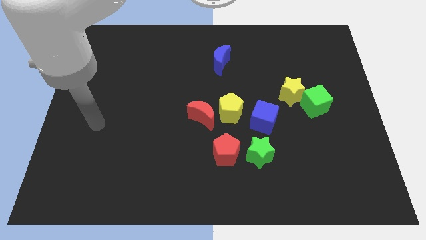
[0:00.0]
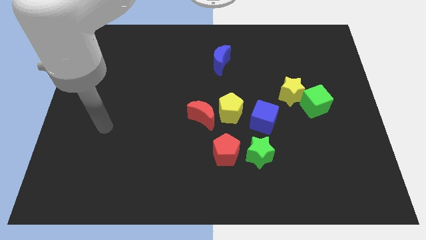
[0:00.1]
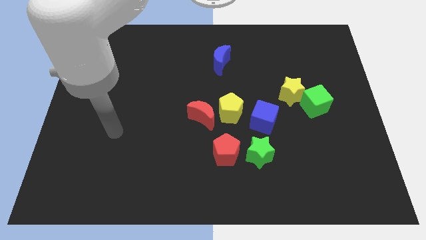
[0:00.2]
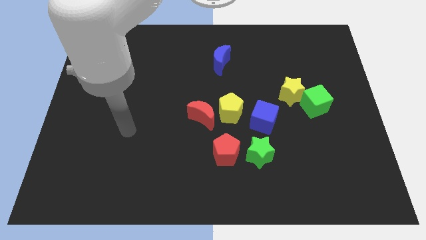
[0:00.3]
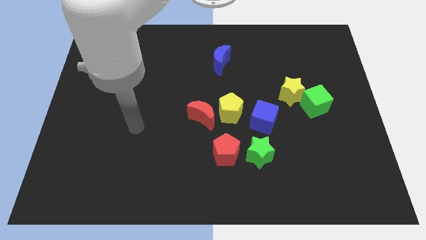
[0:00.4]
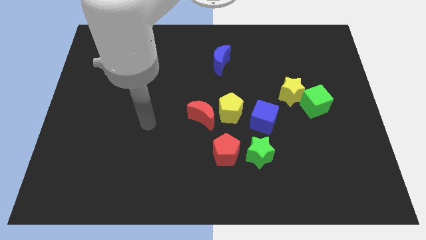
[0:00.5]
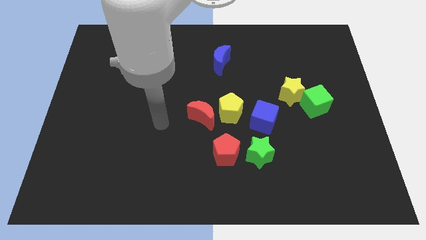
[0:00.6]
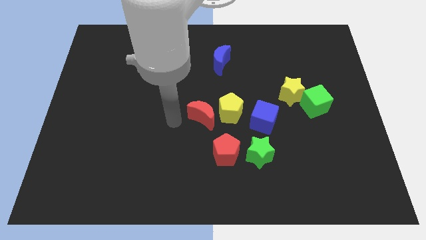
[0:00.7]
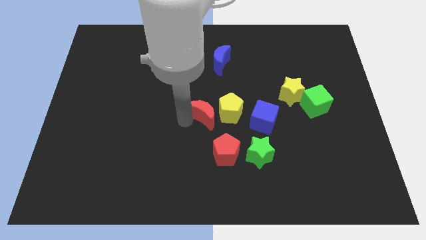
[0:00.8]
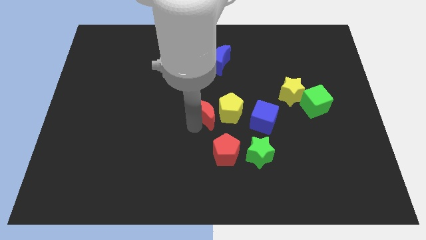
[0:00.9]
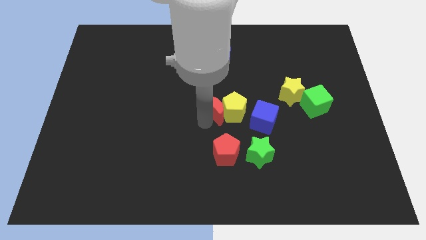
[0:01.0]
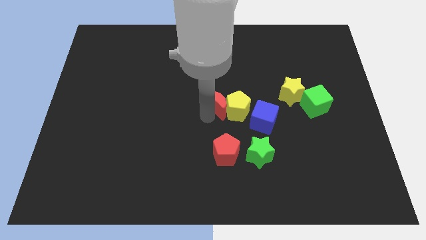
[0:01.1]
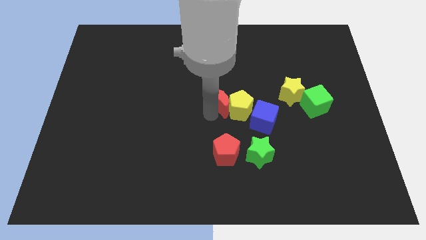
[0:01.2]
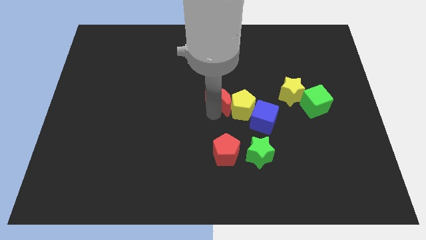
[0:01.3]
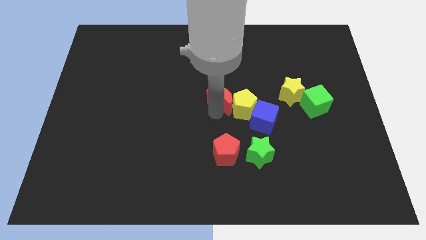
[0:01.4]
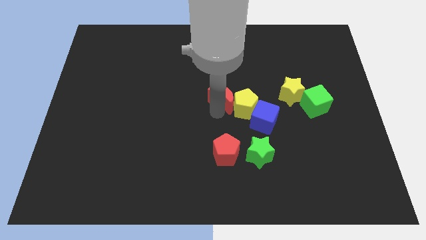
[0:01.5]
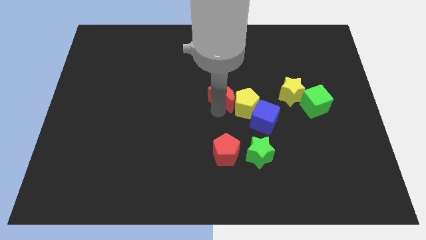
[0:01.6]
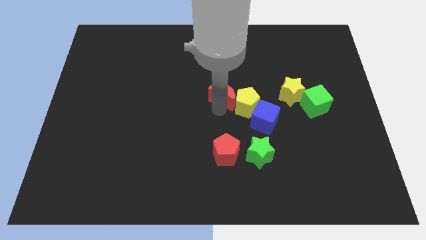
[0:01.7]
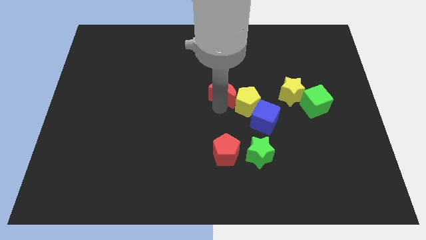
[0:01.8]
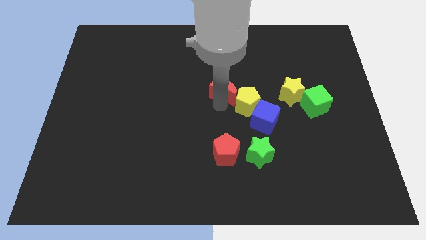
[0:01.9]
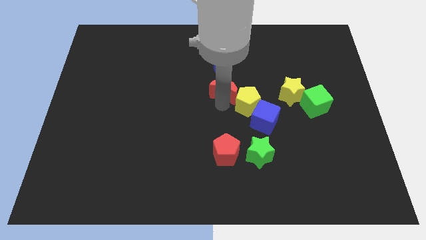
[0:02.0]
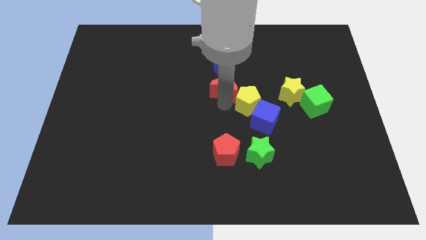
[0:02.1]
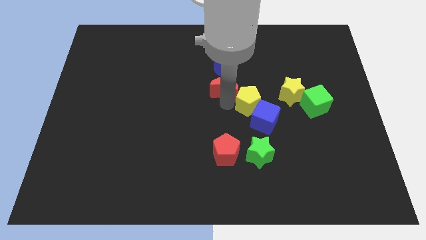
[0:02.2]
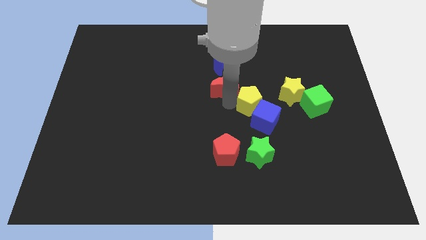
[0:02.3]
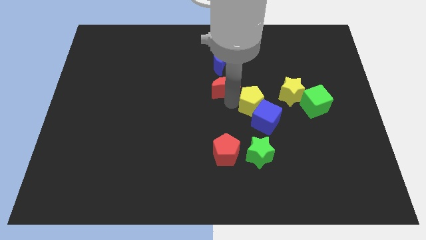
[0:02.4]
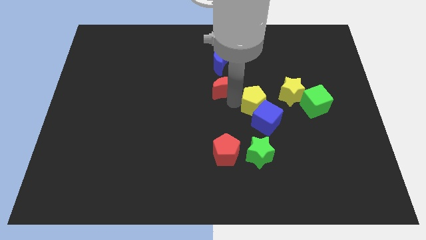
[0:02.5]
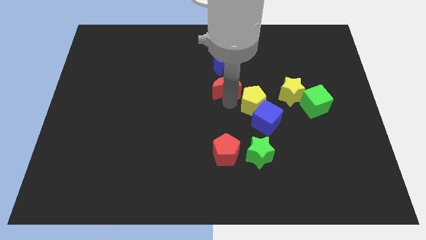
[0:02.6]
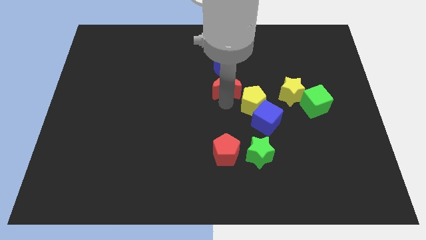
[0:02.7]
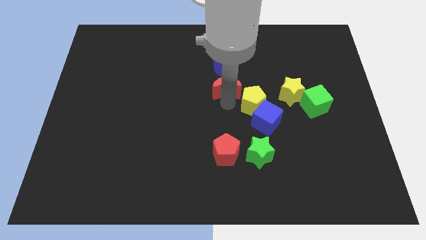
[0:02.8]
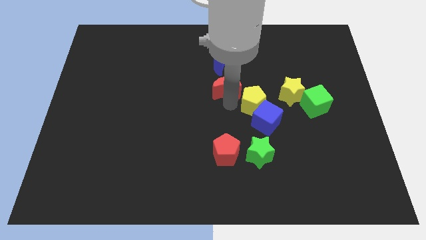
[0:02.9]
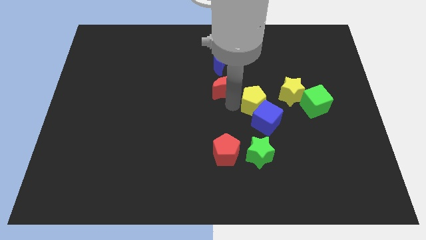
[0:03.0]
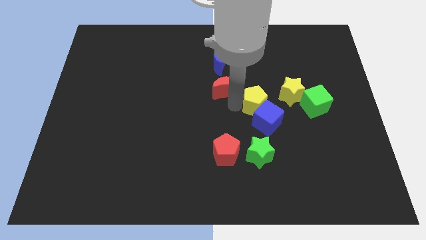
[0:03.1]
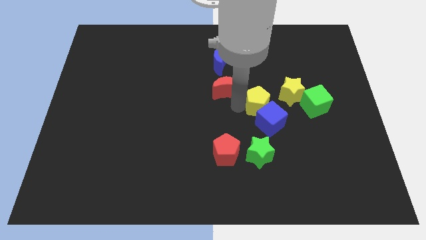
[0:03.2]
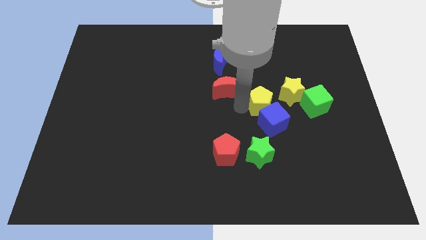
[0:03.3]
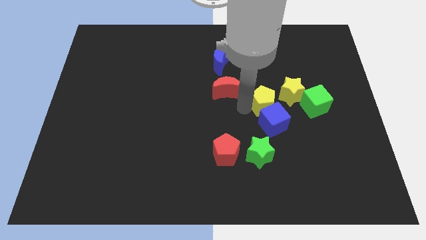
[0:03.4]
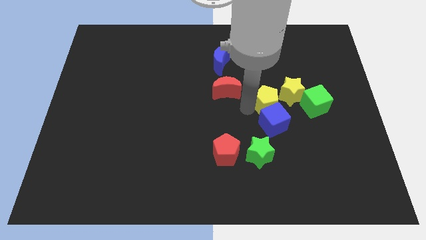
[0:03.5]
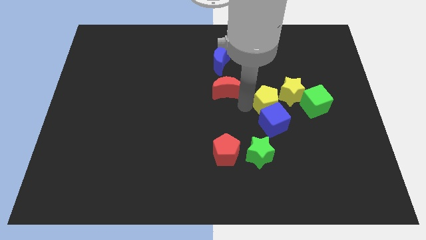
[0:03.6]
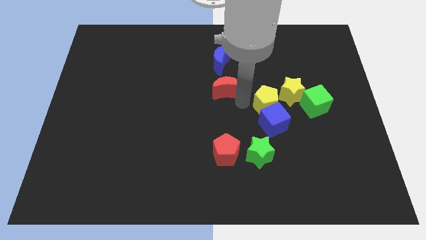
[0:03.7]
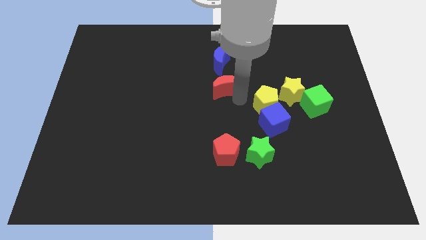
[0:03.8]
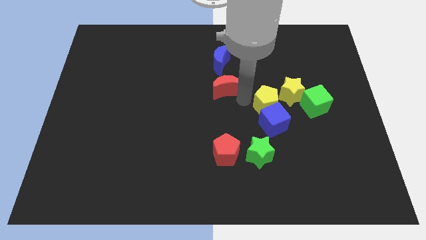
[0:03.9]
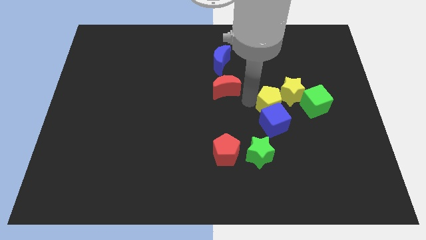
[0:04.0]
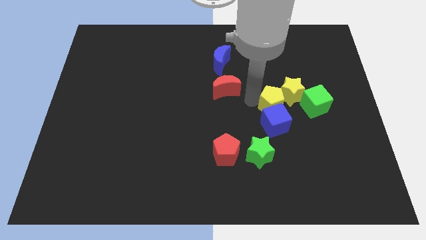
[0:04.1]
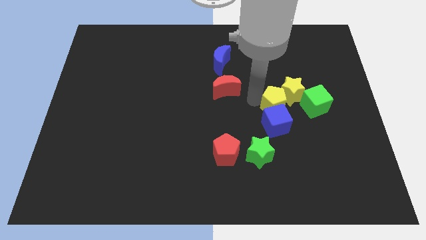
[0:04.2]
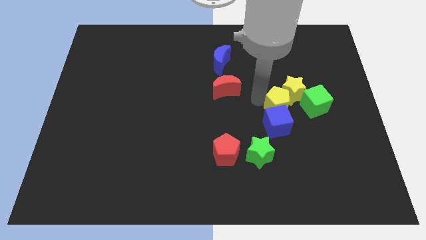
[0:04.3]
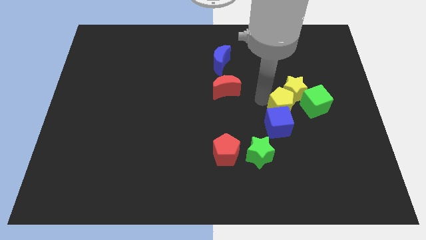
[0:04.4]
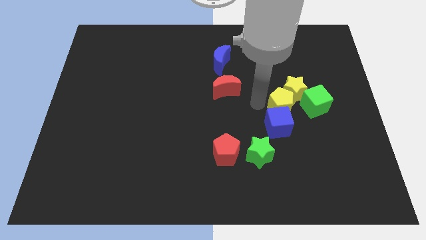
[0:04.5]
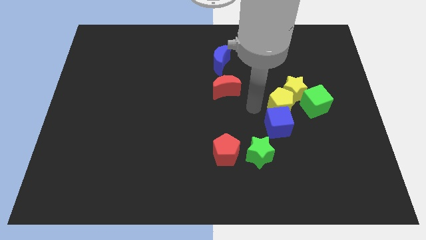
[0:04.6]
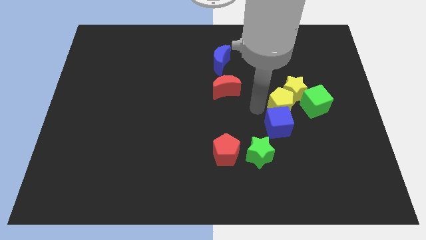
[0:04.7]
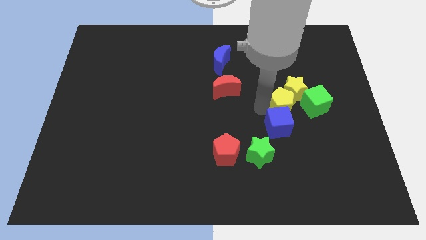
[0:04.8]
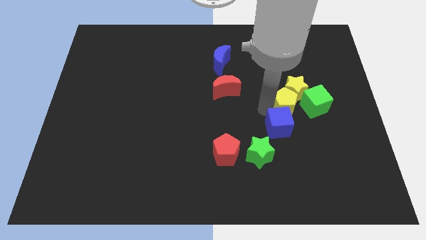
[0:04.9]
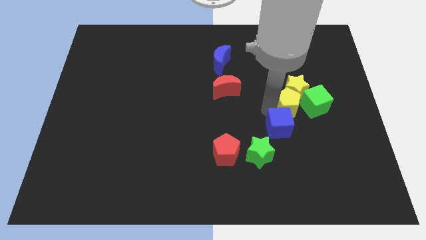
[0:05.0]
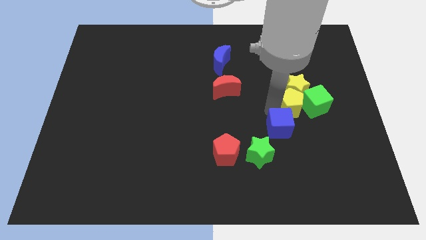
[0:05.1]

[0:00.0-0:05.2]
move the yellow pentagon close to the green cube

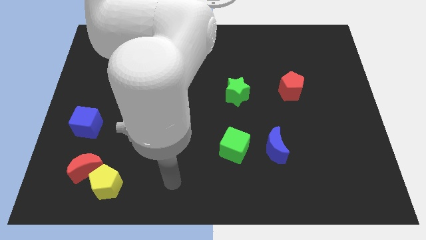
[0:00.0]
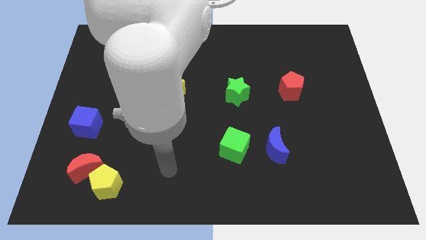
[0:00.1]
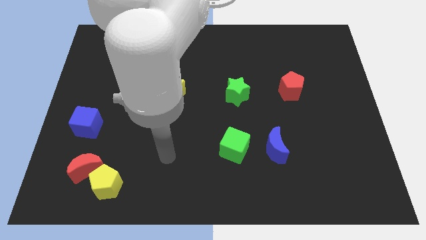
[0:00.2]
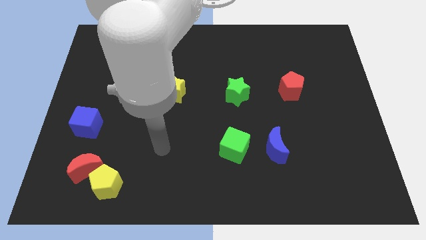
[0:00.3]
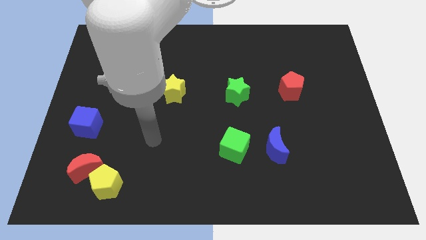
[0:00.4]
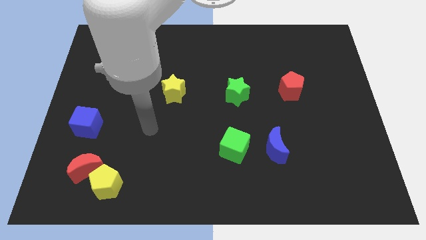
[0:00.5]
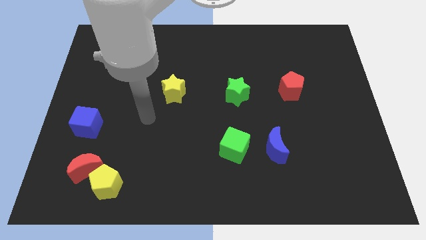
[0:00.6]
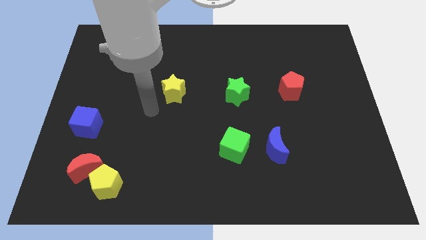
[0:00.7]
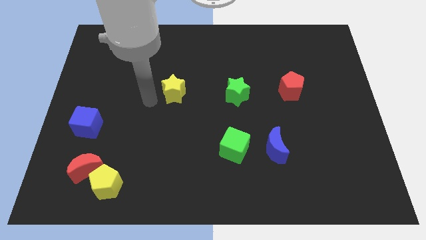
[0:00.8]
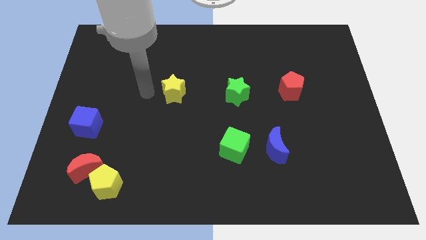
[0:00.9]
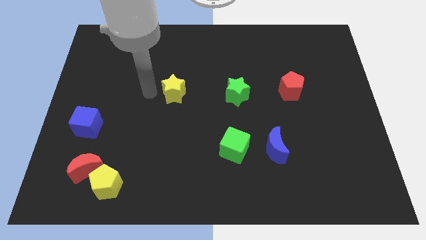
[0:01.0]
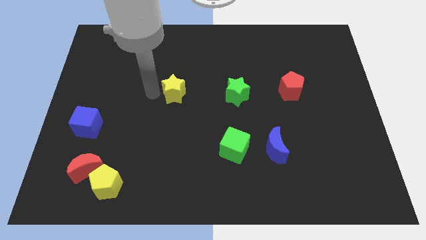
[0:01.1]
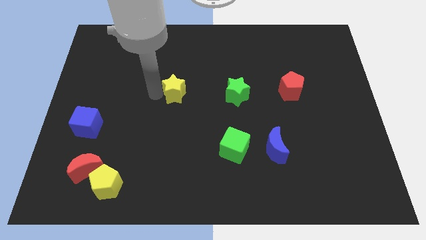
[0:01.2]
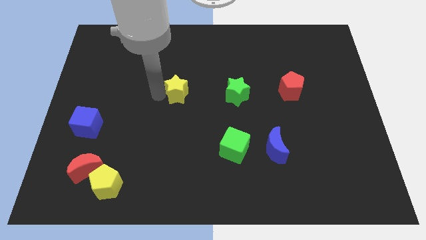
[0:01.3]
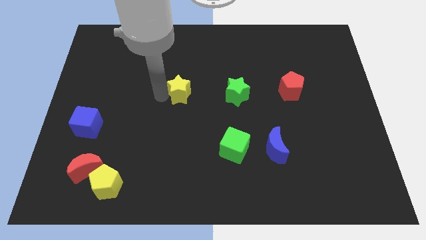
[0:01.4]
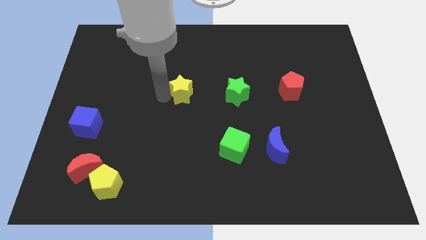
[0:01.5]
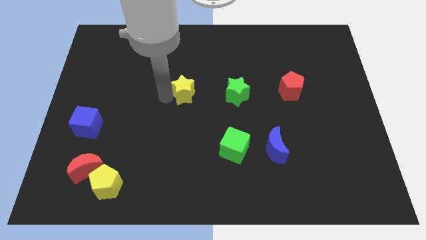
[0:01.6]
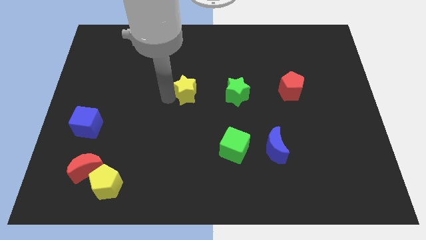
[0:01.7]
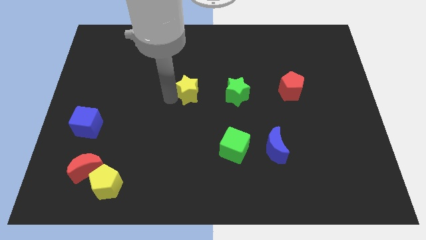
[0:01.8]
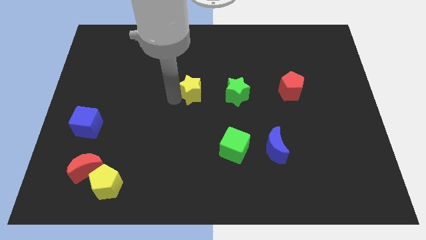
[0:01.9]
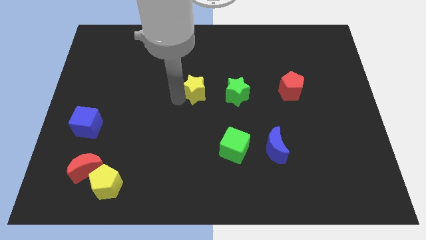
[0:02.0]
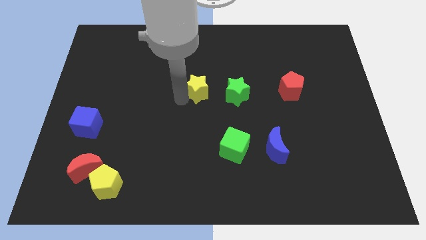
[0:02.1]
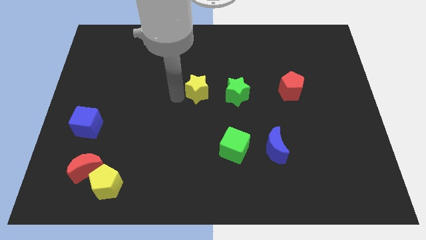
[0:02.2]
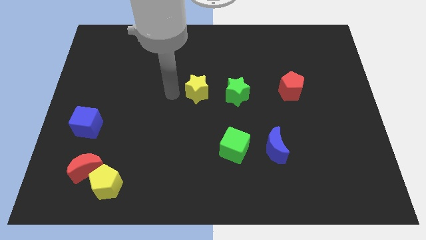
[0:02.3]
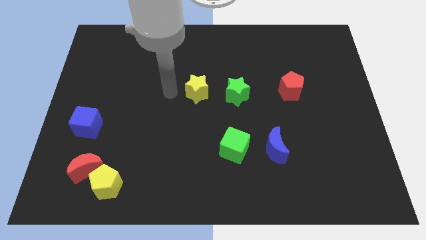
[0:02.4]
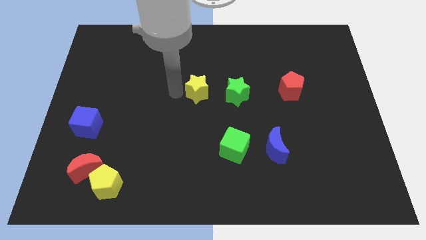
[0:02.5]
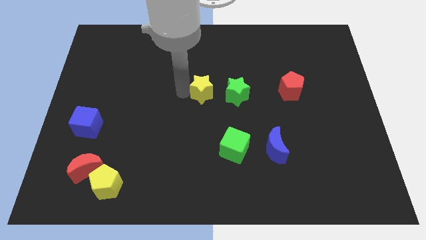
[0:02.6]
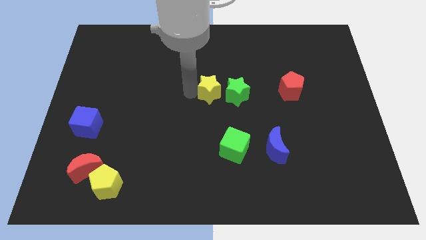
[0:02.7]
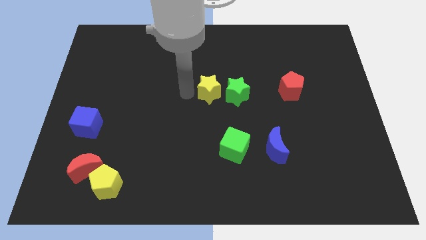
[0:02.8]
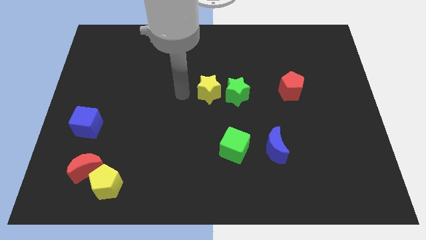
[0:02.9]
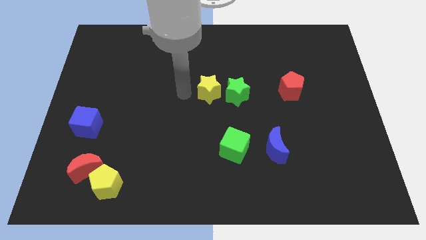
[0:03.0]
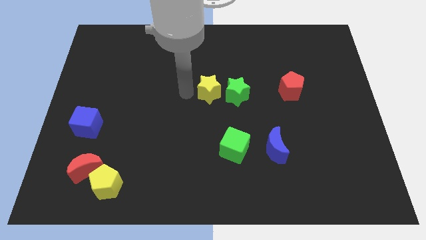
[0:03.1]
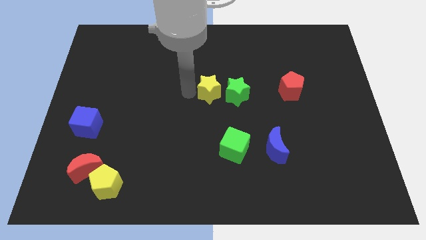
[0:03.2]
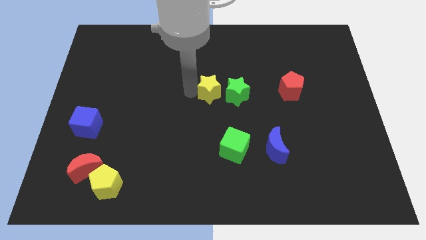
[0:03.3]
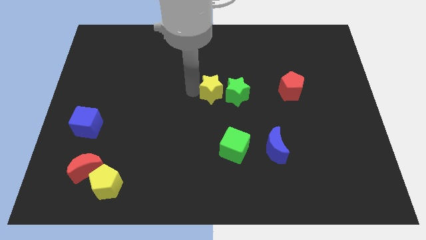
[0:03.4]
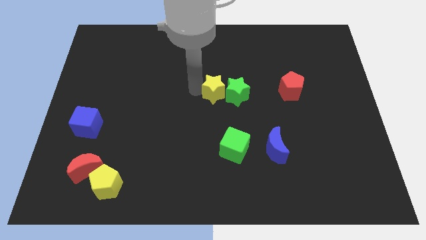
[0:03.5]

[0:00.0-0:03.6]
push the yellow star next to the green star
